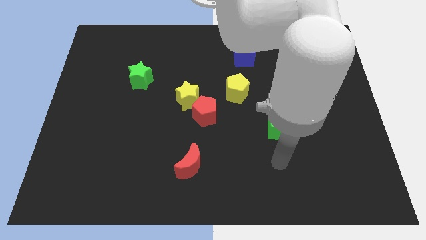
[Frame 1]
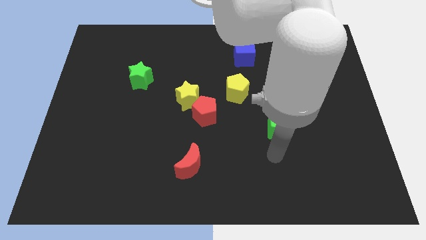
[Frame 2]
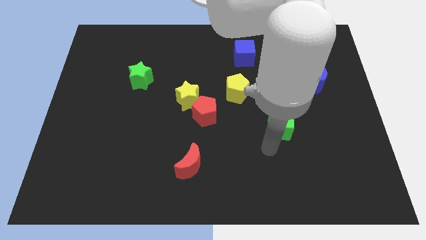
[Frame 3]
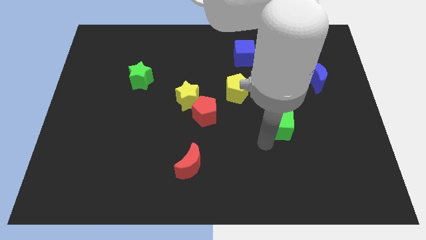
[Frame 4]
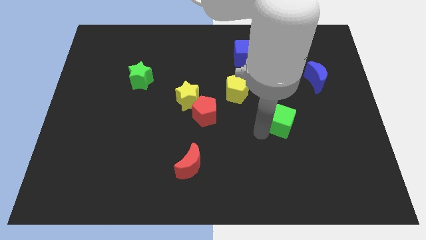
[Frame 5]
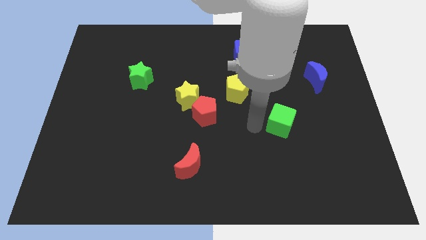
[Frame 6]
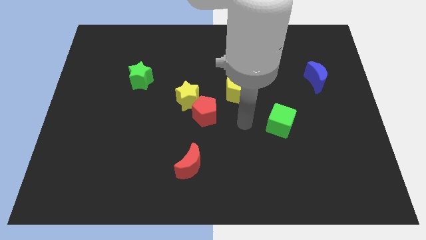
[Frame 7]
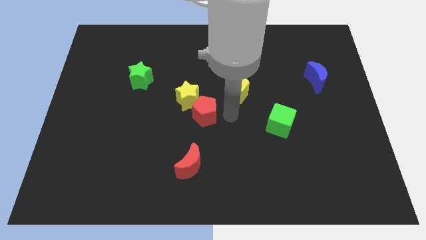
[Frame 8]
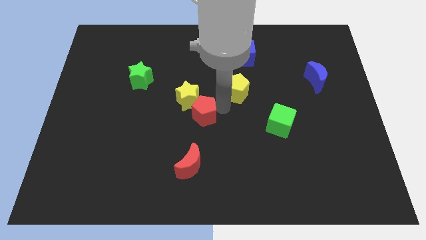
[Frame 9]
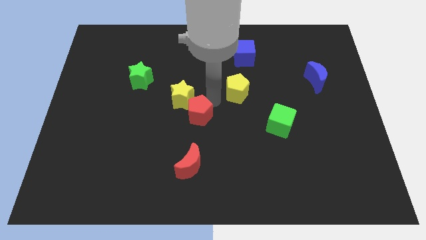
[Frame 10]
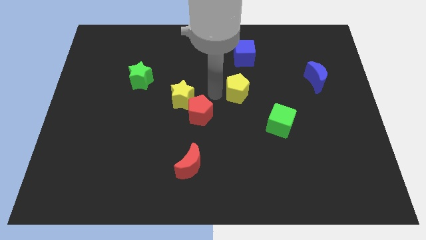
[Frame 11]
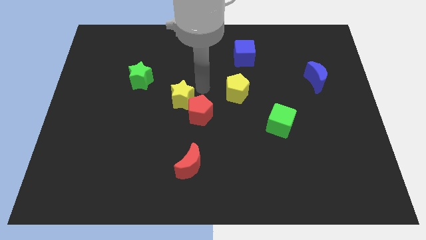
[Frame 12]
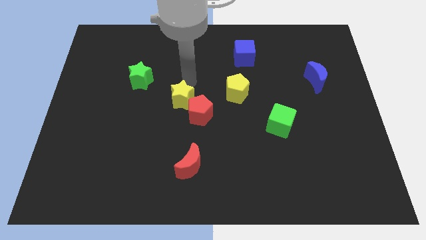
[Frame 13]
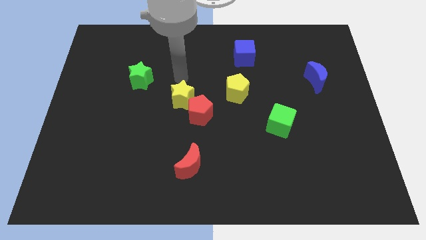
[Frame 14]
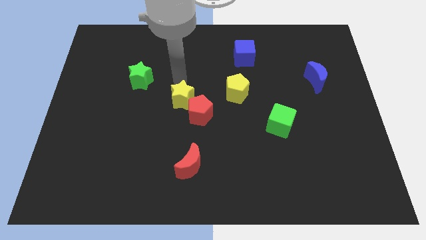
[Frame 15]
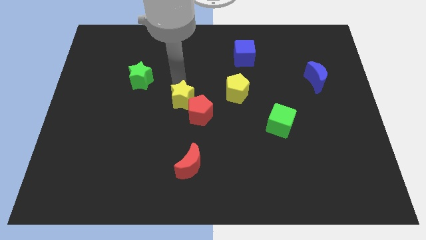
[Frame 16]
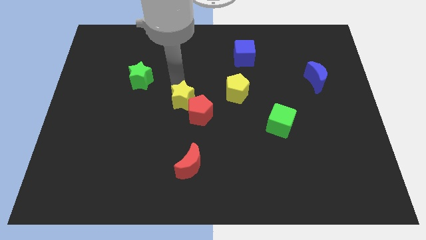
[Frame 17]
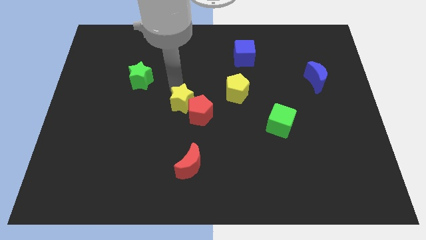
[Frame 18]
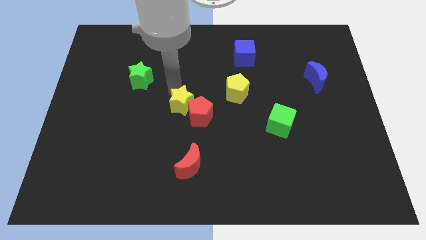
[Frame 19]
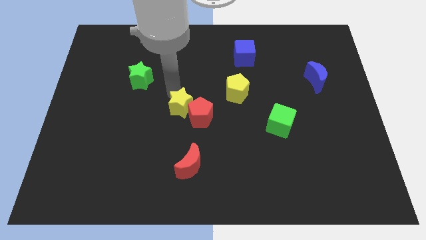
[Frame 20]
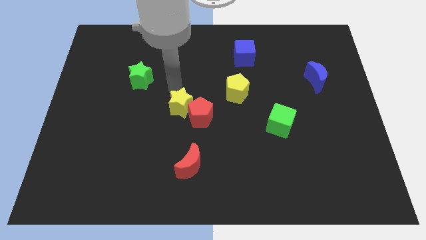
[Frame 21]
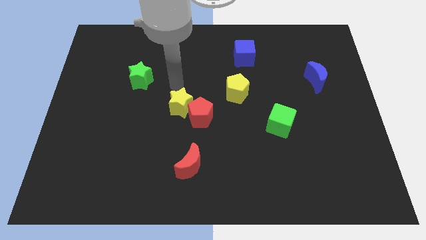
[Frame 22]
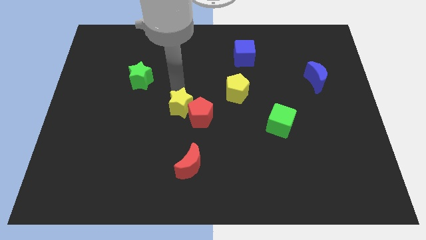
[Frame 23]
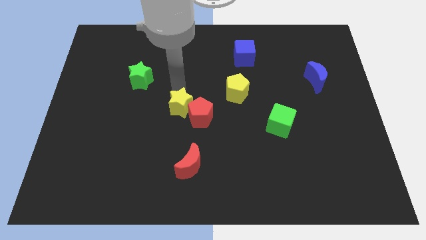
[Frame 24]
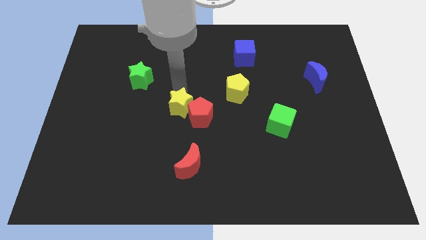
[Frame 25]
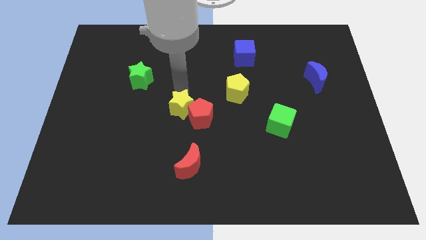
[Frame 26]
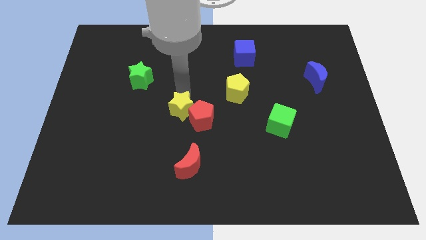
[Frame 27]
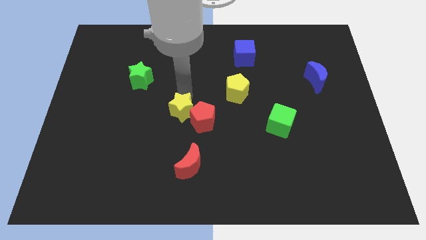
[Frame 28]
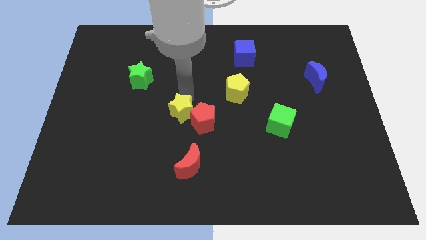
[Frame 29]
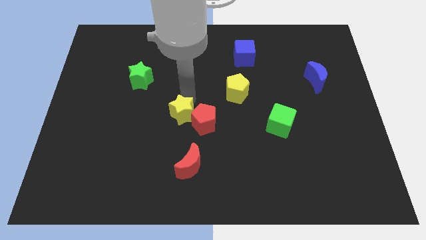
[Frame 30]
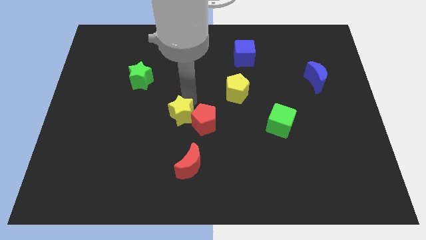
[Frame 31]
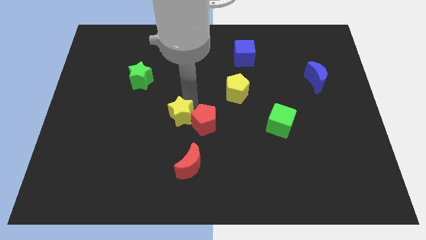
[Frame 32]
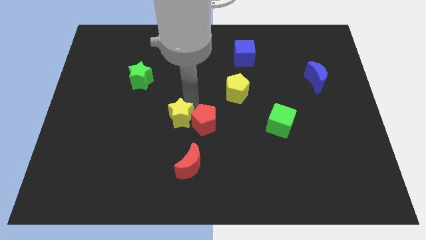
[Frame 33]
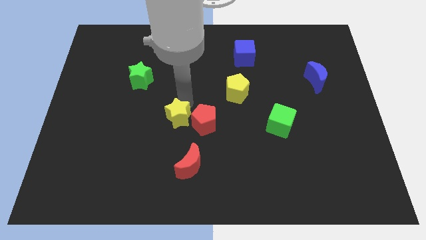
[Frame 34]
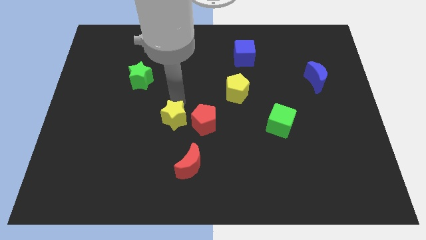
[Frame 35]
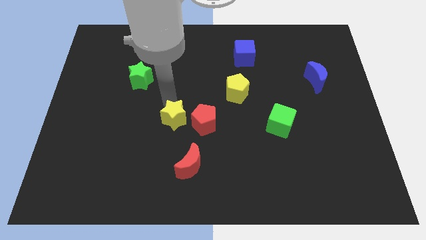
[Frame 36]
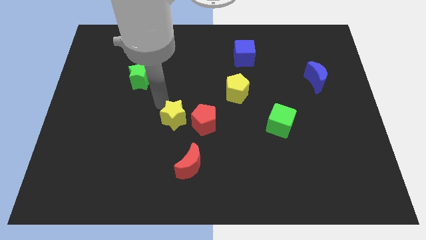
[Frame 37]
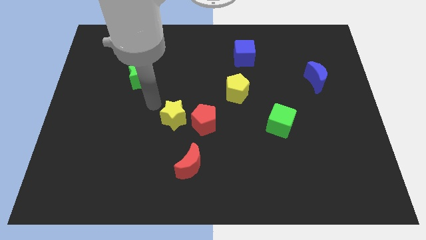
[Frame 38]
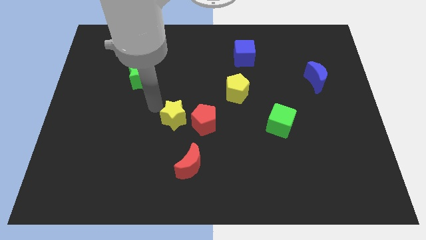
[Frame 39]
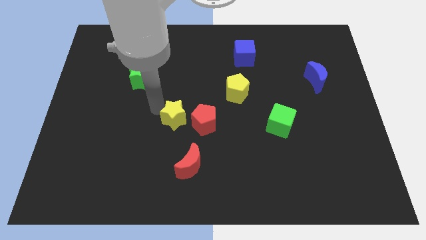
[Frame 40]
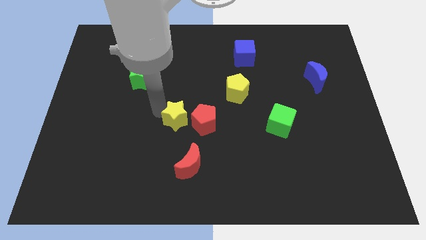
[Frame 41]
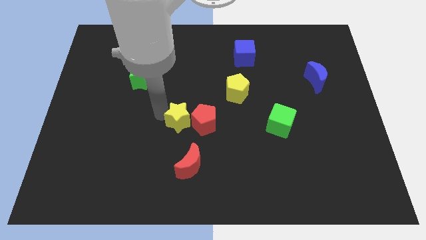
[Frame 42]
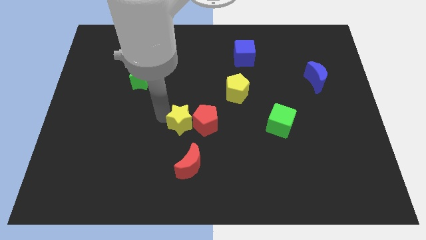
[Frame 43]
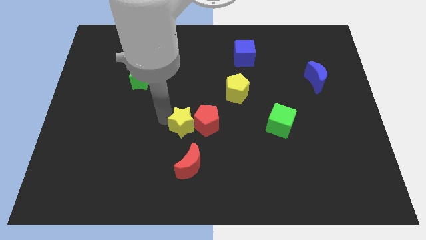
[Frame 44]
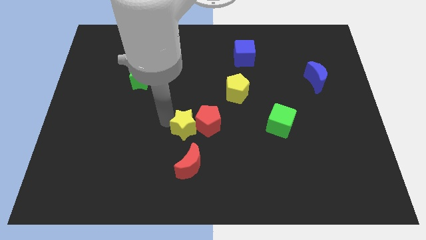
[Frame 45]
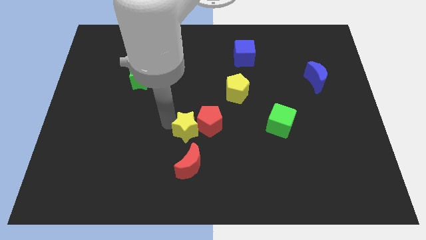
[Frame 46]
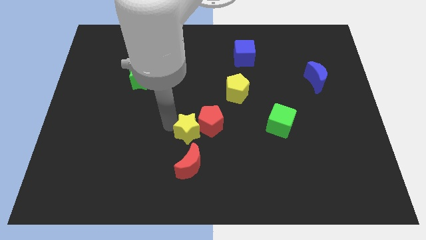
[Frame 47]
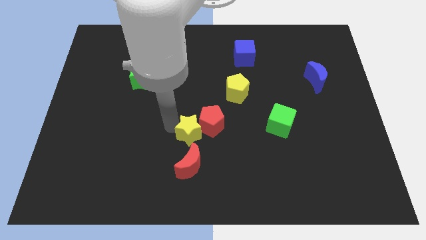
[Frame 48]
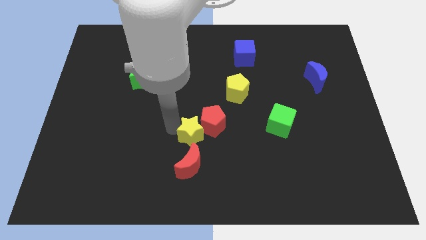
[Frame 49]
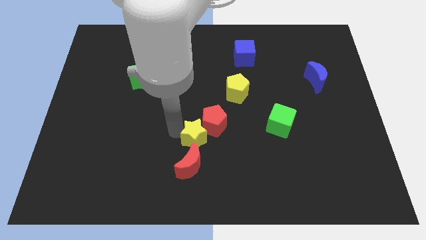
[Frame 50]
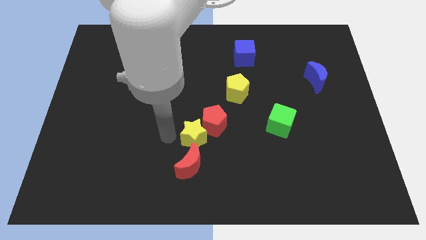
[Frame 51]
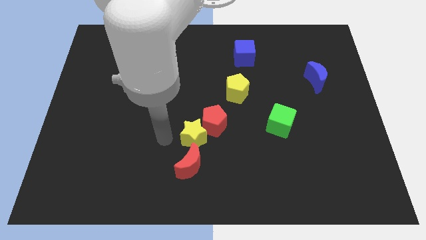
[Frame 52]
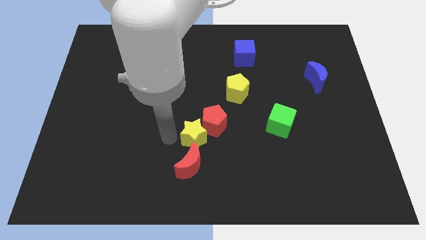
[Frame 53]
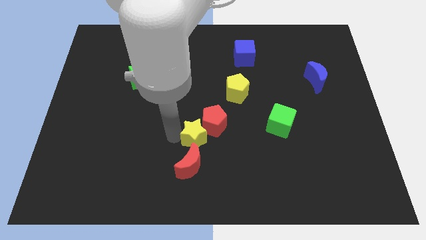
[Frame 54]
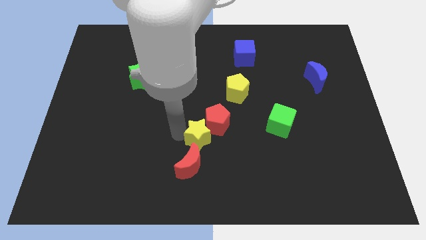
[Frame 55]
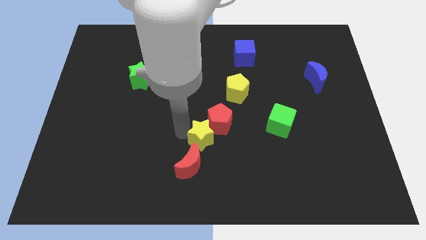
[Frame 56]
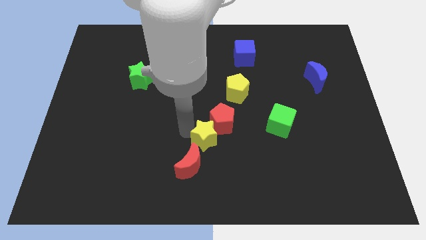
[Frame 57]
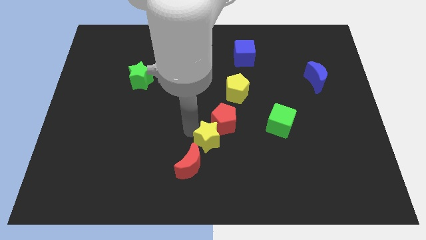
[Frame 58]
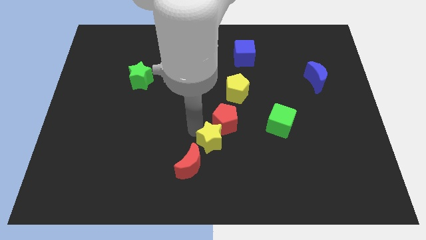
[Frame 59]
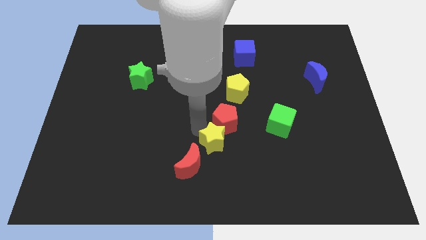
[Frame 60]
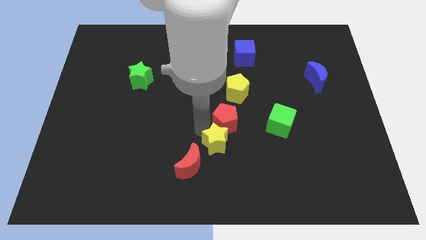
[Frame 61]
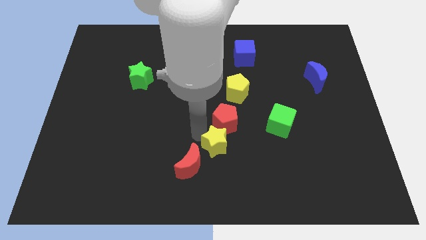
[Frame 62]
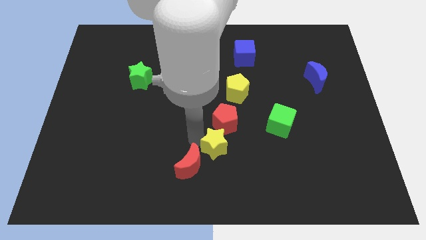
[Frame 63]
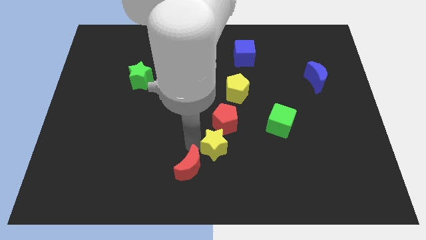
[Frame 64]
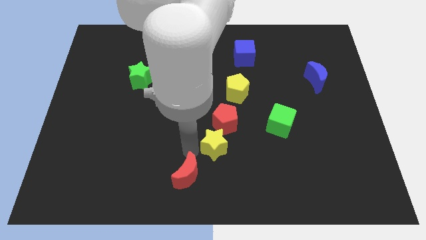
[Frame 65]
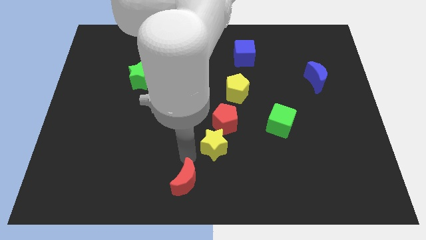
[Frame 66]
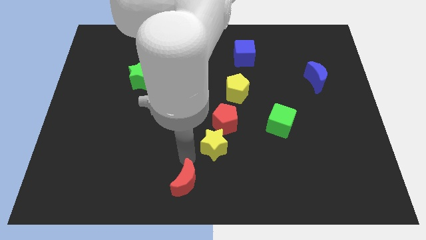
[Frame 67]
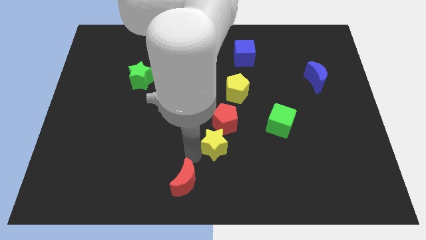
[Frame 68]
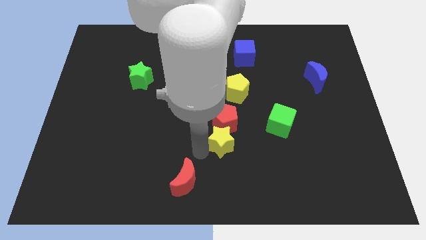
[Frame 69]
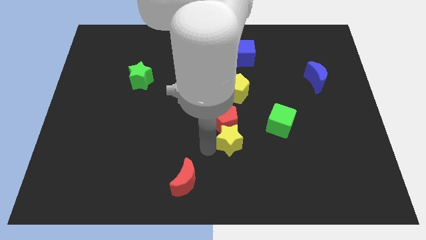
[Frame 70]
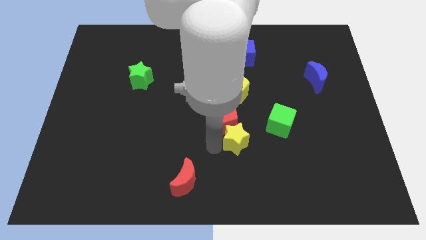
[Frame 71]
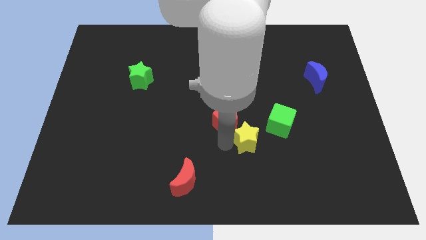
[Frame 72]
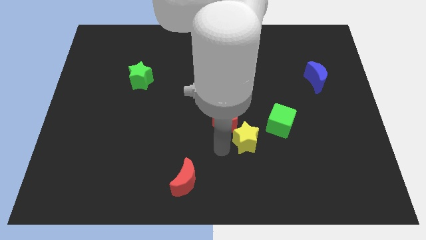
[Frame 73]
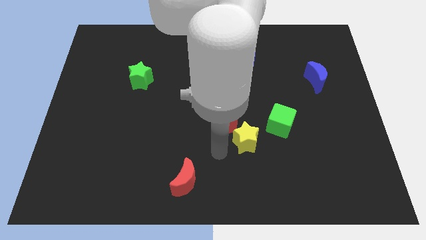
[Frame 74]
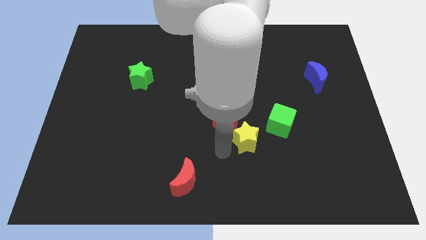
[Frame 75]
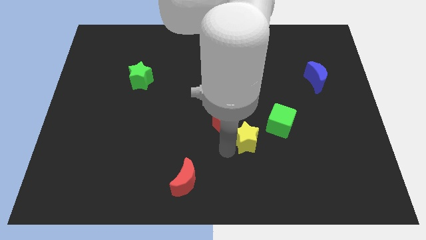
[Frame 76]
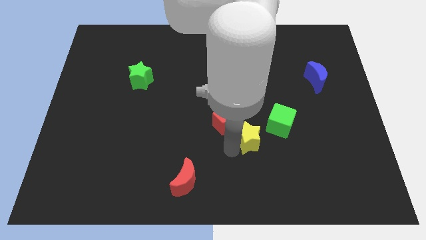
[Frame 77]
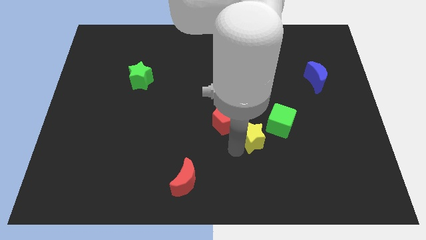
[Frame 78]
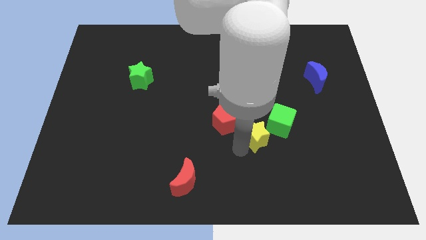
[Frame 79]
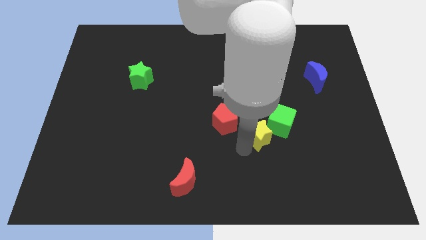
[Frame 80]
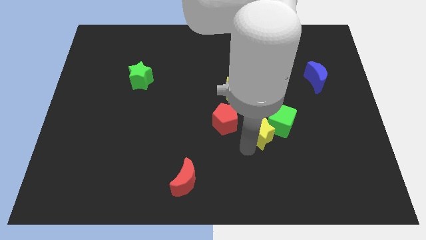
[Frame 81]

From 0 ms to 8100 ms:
move the yellow star to the green cube
